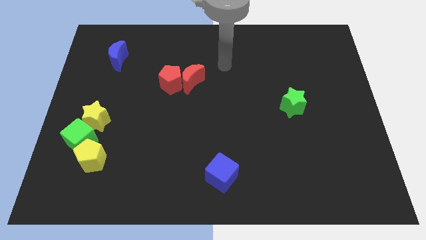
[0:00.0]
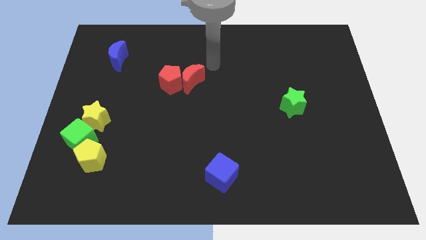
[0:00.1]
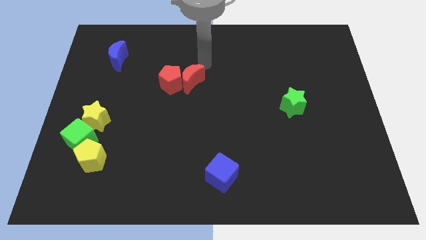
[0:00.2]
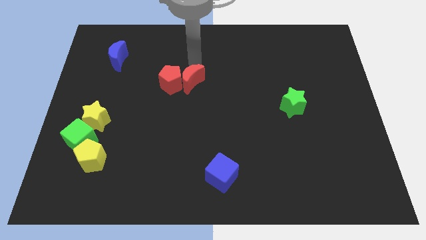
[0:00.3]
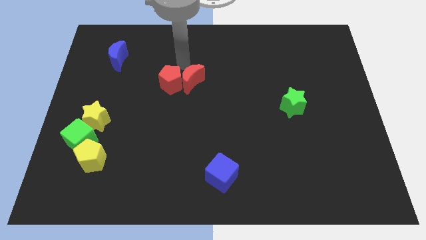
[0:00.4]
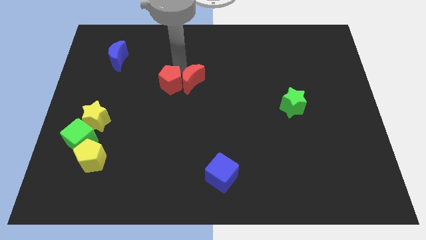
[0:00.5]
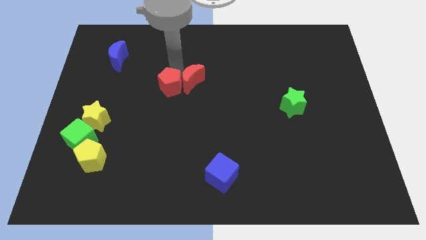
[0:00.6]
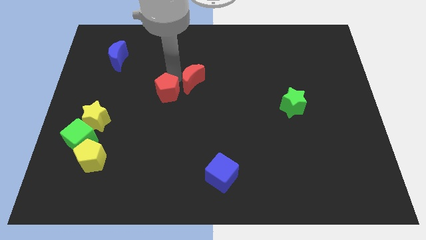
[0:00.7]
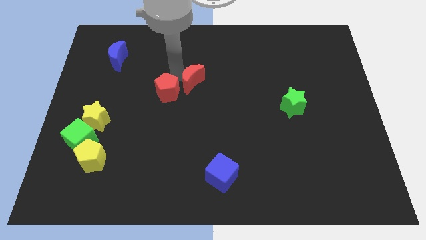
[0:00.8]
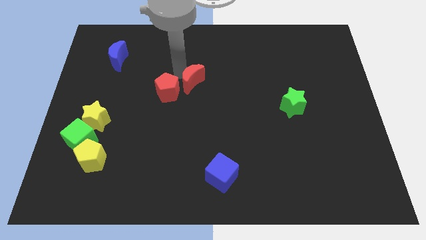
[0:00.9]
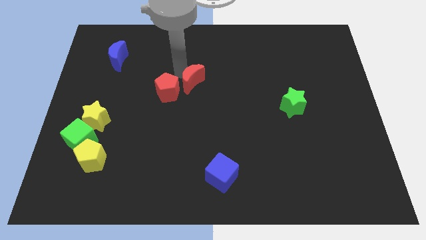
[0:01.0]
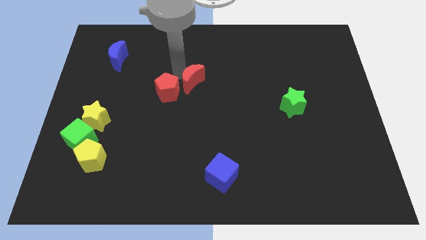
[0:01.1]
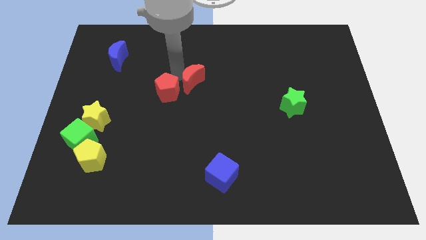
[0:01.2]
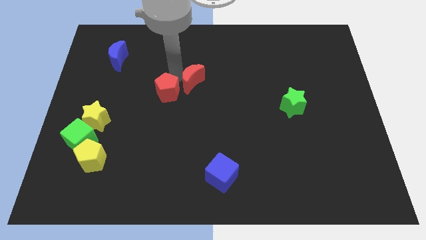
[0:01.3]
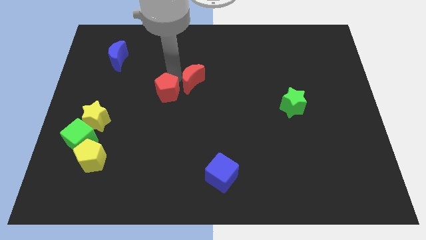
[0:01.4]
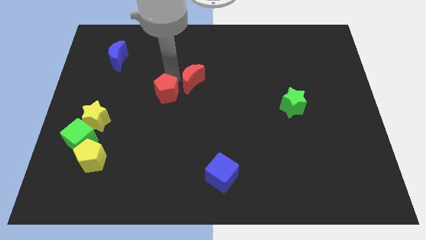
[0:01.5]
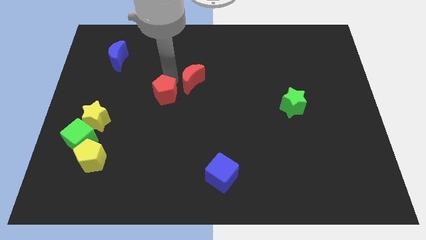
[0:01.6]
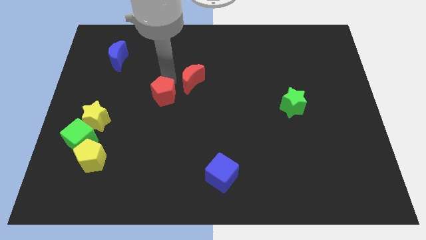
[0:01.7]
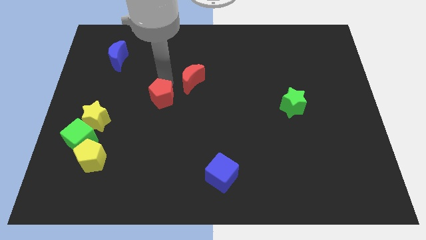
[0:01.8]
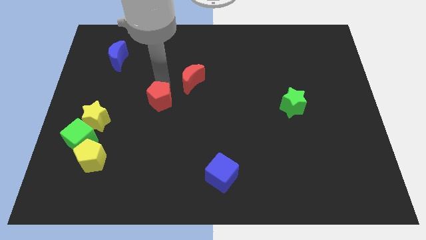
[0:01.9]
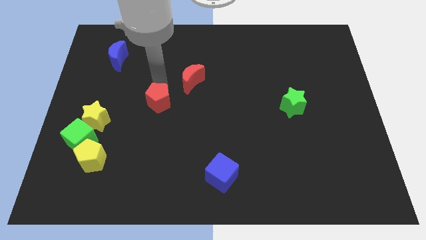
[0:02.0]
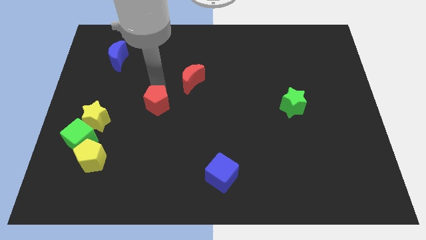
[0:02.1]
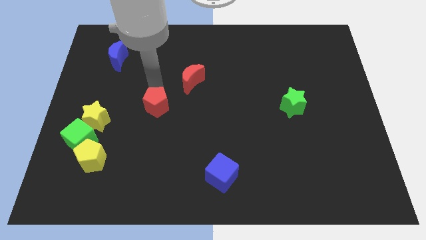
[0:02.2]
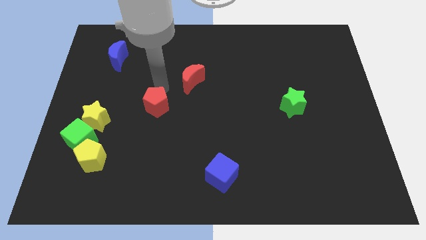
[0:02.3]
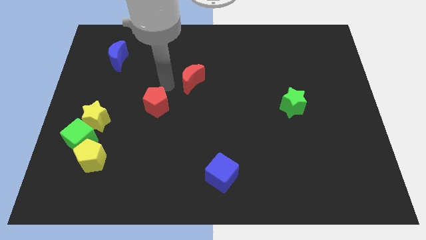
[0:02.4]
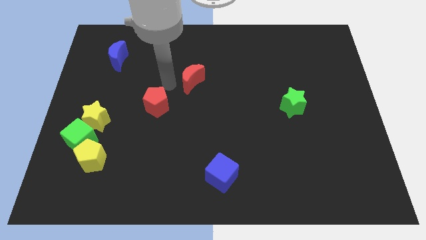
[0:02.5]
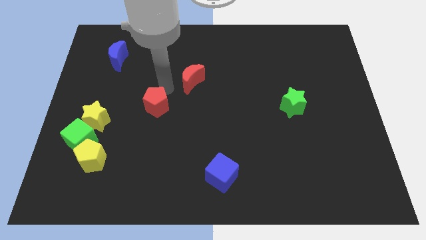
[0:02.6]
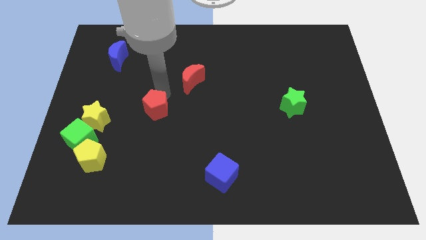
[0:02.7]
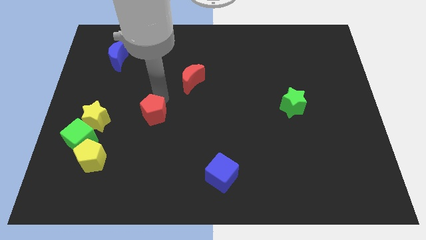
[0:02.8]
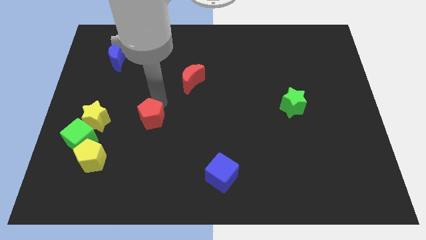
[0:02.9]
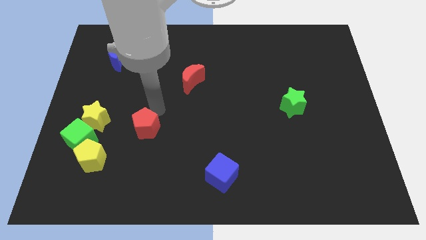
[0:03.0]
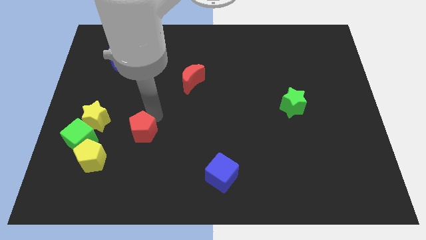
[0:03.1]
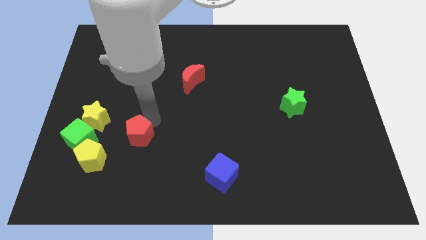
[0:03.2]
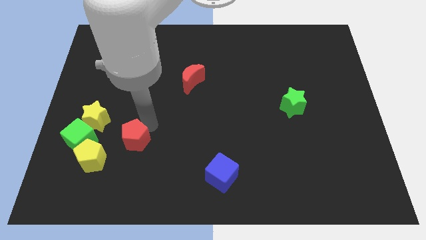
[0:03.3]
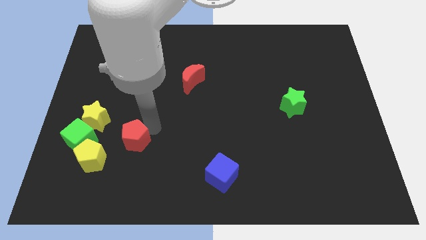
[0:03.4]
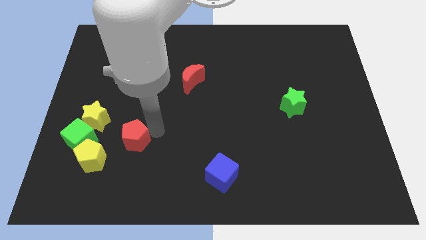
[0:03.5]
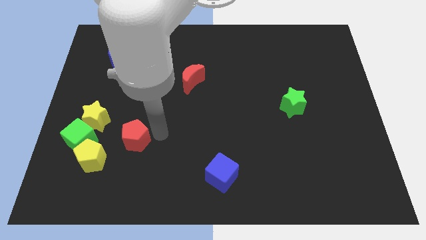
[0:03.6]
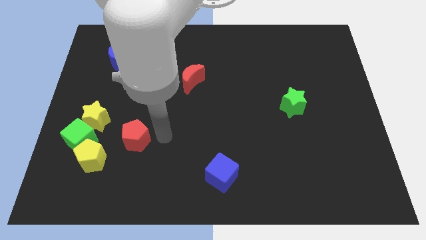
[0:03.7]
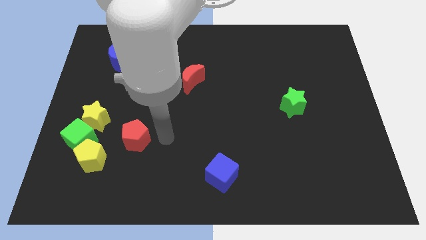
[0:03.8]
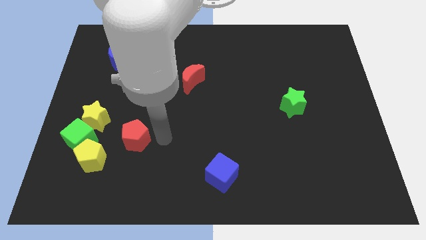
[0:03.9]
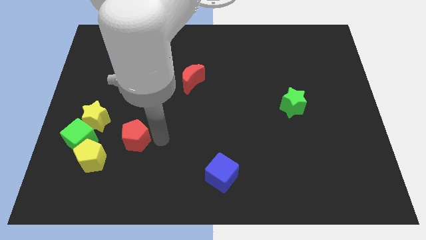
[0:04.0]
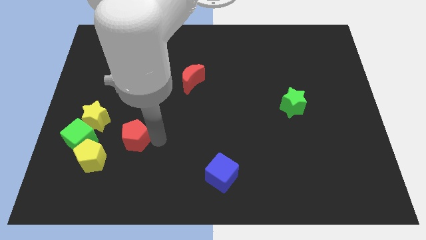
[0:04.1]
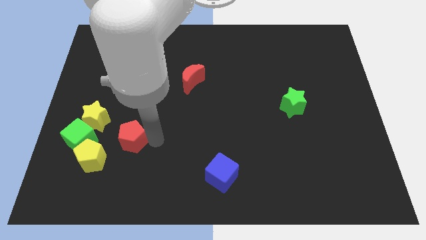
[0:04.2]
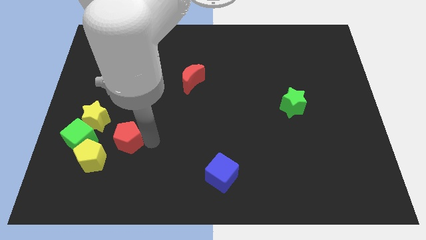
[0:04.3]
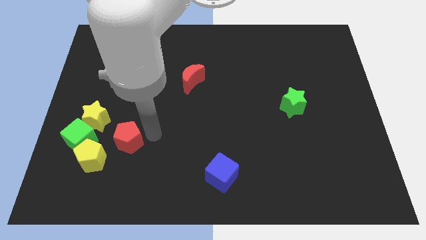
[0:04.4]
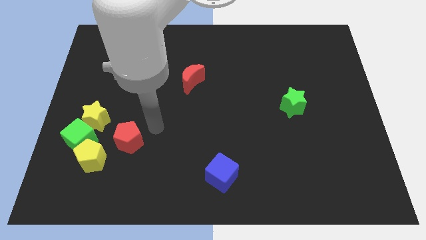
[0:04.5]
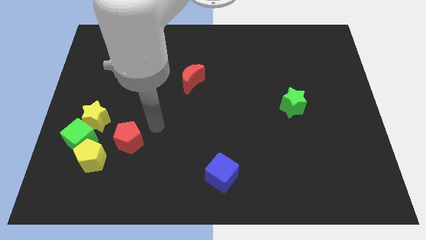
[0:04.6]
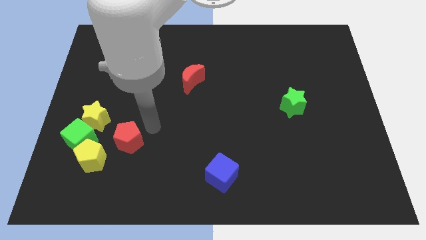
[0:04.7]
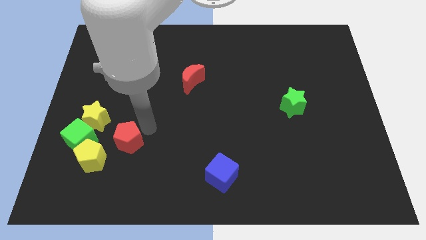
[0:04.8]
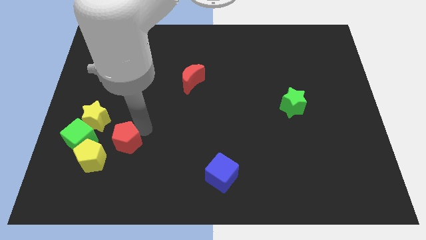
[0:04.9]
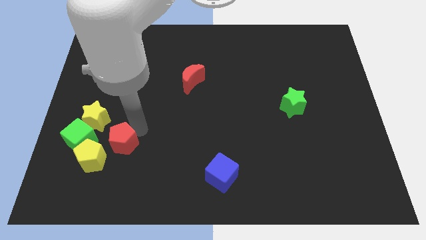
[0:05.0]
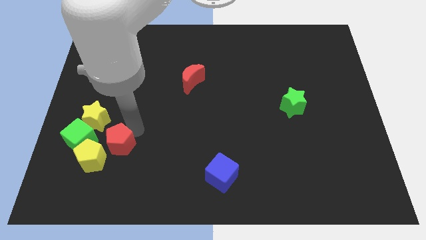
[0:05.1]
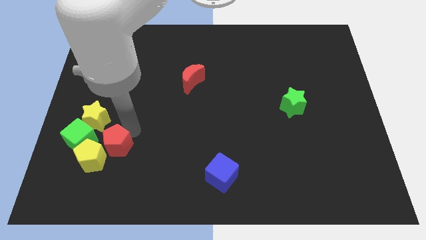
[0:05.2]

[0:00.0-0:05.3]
push the red pentagon towards the yellow pentagon

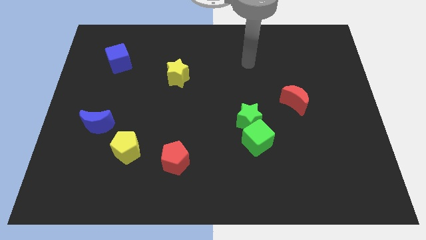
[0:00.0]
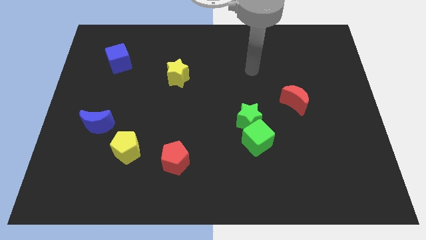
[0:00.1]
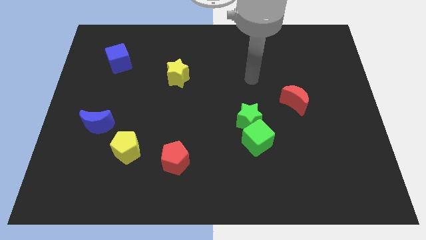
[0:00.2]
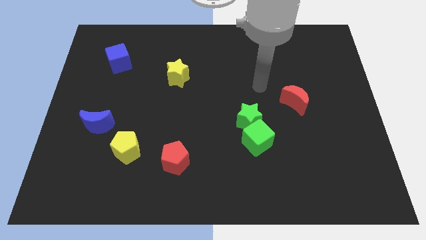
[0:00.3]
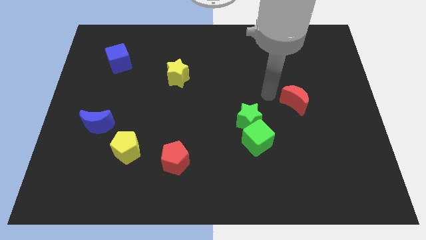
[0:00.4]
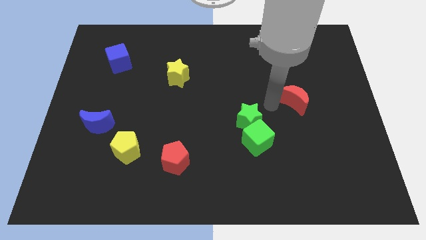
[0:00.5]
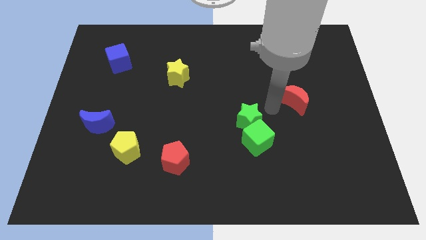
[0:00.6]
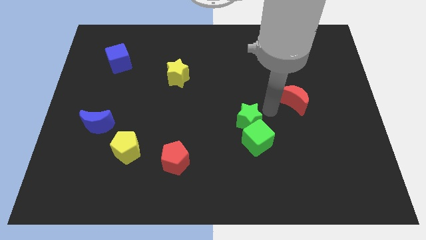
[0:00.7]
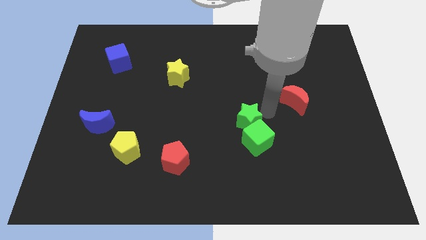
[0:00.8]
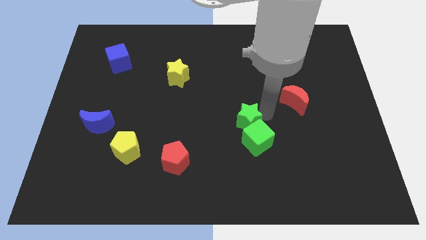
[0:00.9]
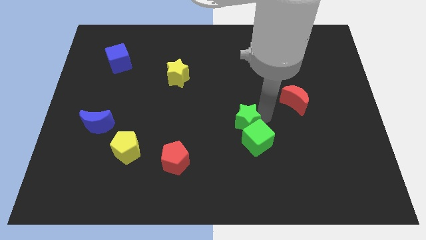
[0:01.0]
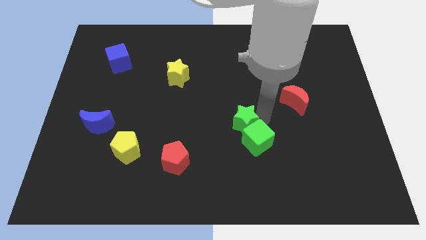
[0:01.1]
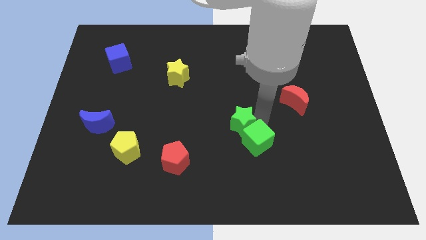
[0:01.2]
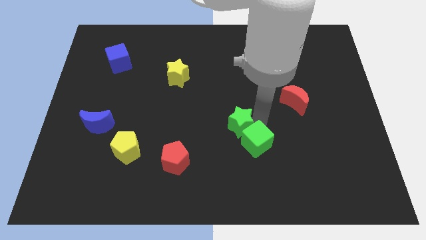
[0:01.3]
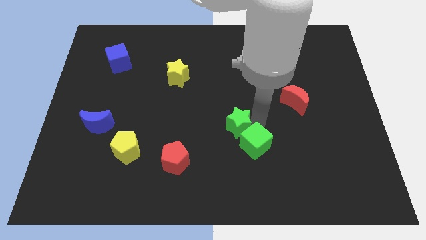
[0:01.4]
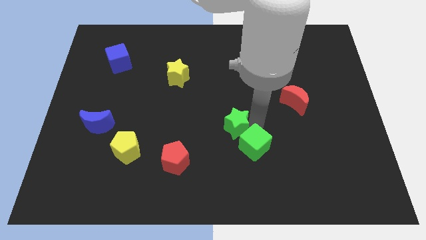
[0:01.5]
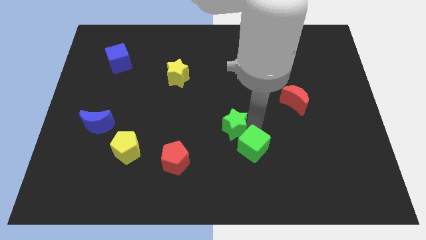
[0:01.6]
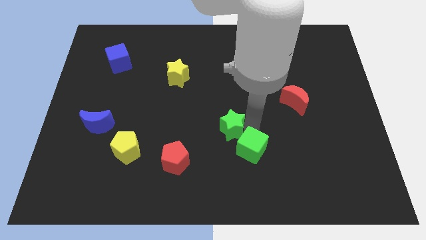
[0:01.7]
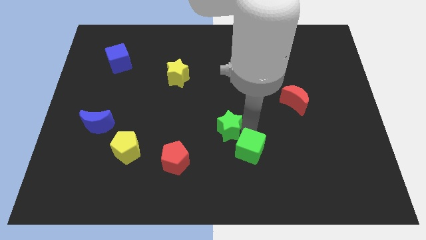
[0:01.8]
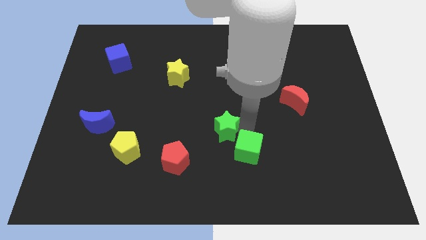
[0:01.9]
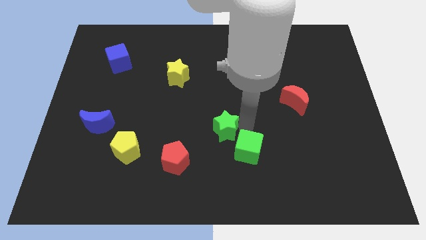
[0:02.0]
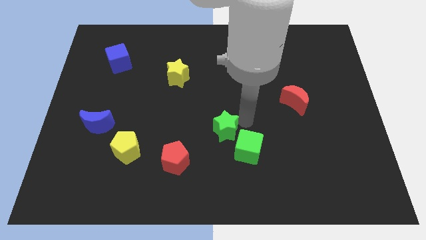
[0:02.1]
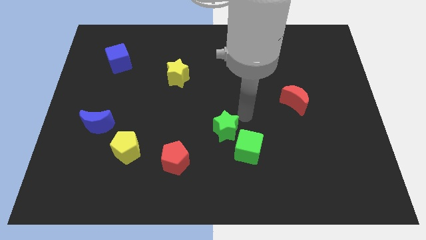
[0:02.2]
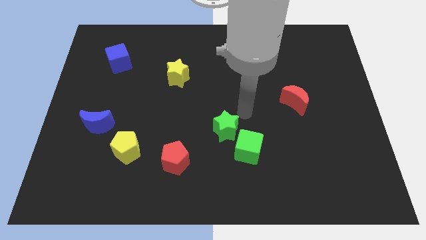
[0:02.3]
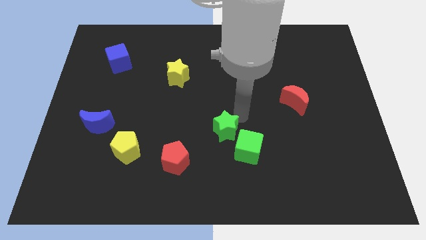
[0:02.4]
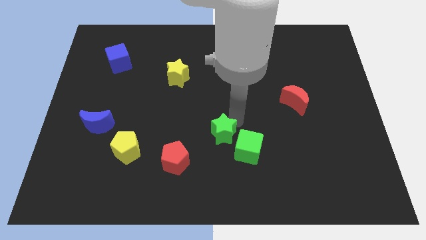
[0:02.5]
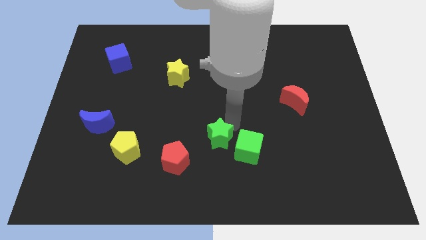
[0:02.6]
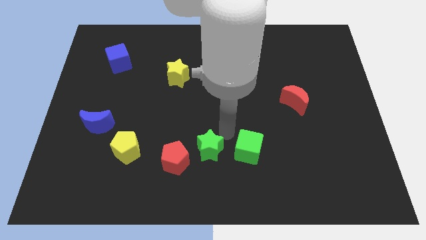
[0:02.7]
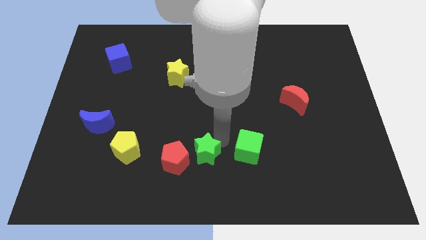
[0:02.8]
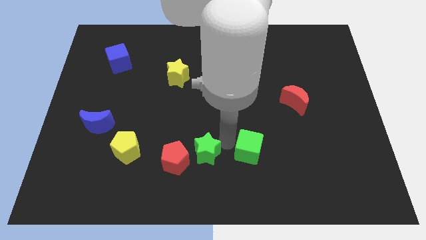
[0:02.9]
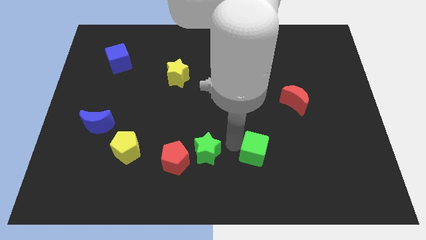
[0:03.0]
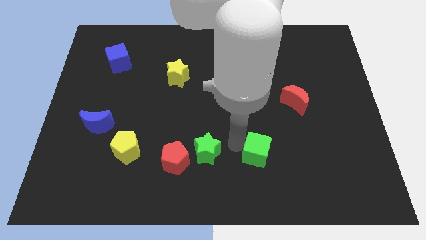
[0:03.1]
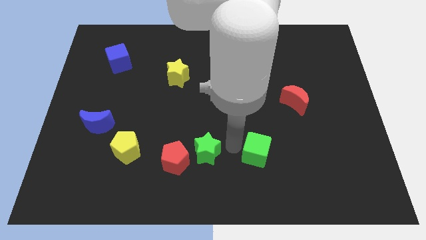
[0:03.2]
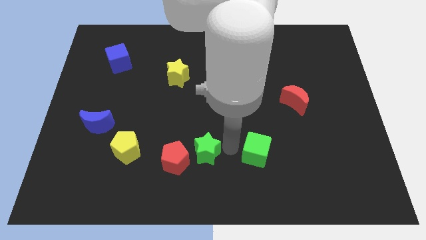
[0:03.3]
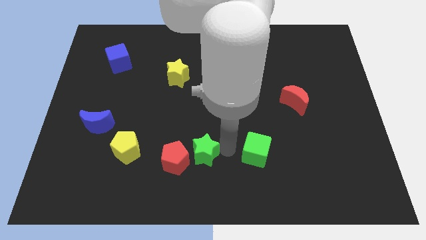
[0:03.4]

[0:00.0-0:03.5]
slide the green star towards the red pentagon
